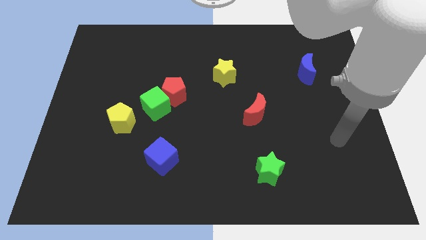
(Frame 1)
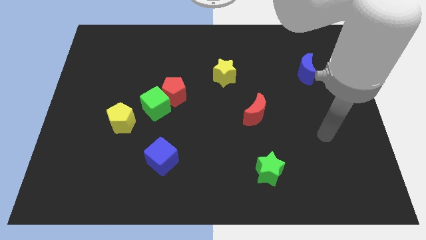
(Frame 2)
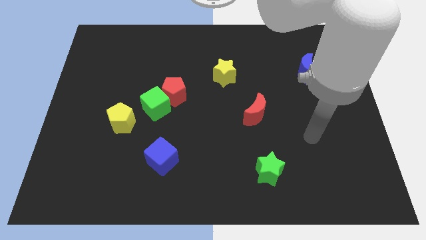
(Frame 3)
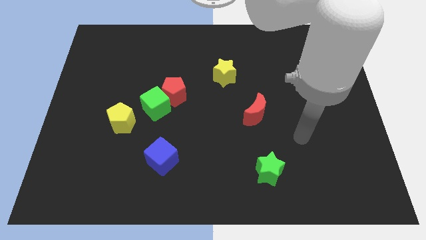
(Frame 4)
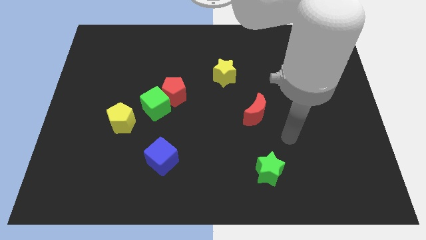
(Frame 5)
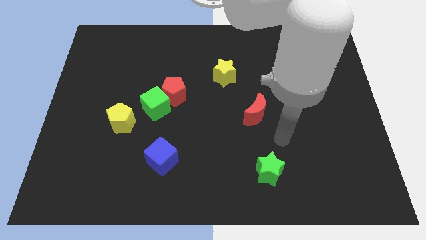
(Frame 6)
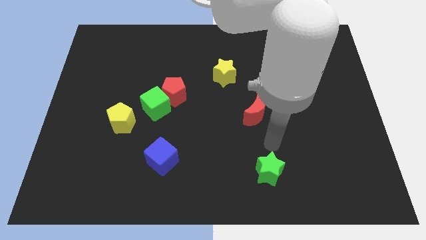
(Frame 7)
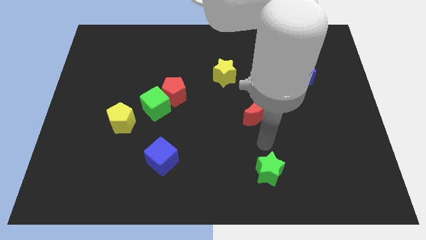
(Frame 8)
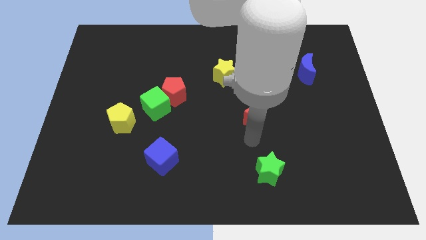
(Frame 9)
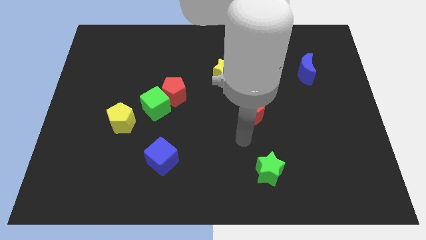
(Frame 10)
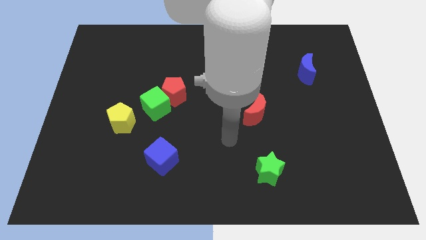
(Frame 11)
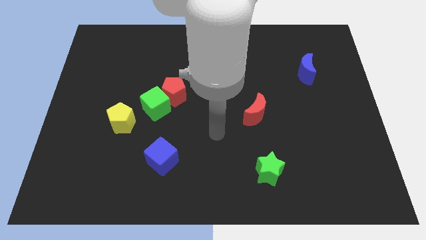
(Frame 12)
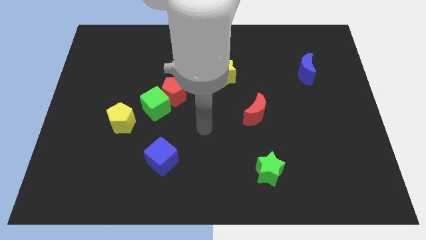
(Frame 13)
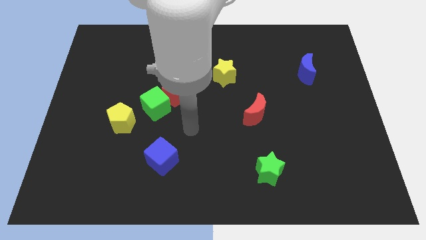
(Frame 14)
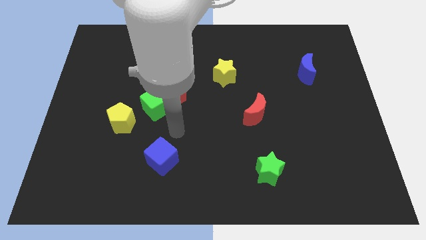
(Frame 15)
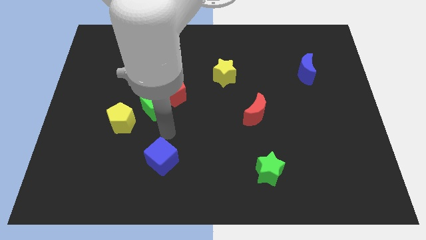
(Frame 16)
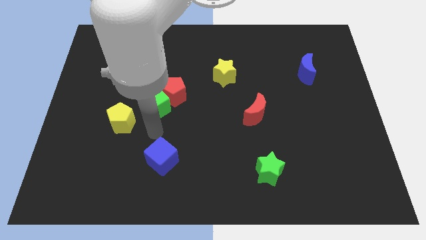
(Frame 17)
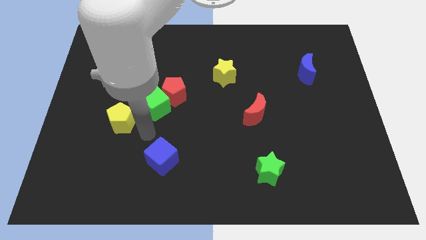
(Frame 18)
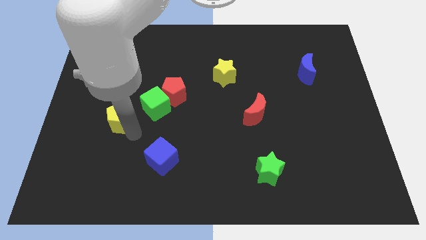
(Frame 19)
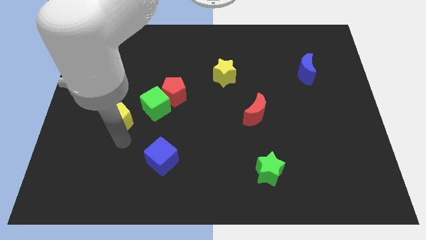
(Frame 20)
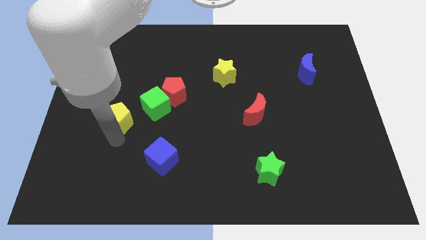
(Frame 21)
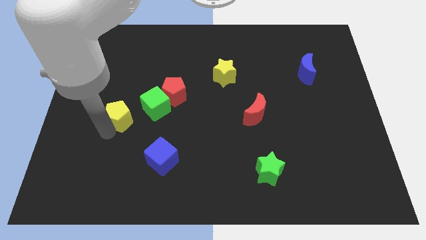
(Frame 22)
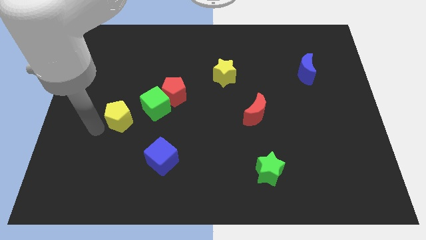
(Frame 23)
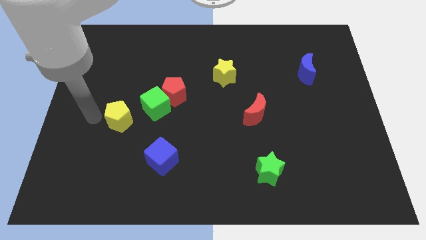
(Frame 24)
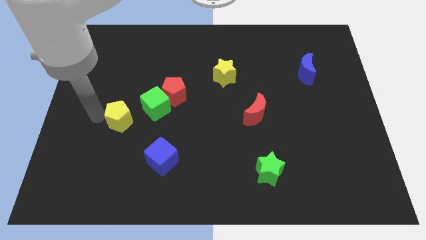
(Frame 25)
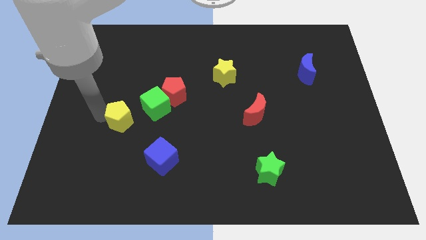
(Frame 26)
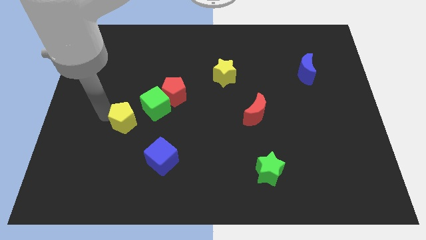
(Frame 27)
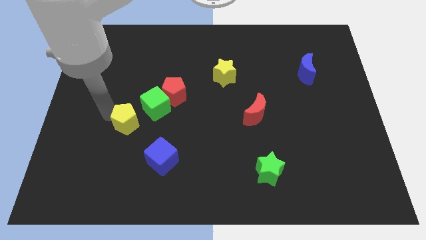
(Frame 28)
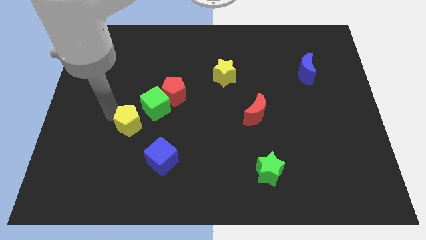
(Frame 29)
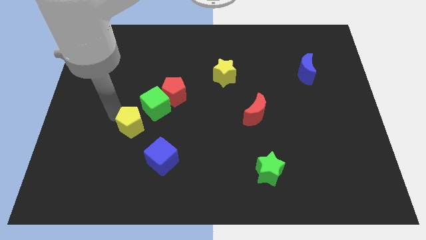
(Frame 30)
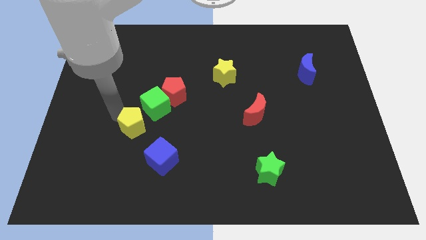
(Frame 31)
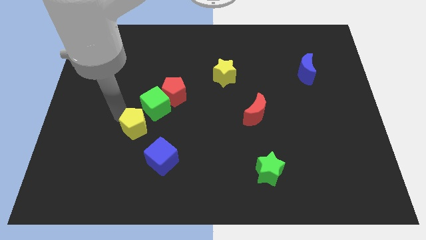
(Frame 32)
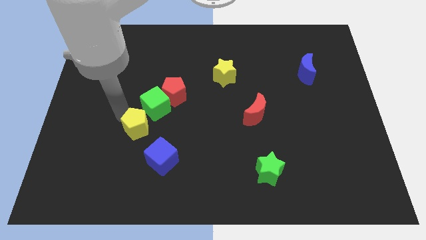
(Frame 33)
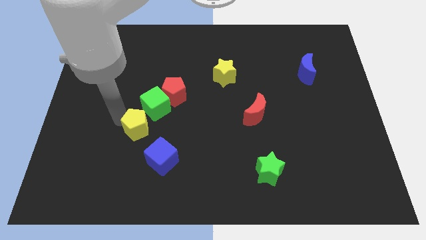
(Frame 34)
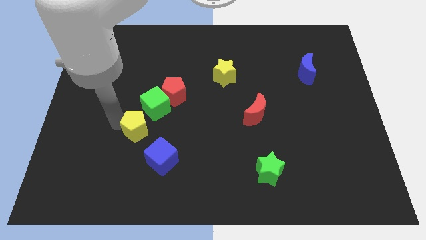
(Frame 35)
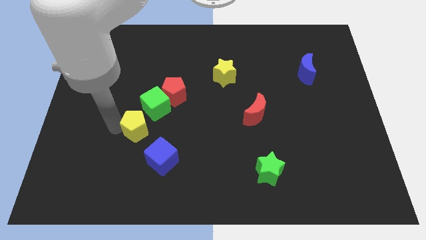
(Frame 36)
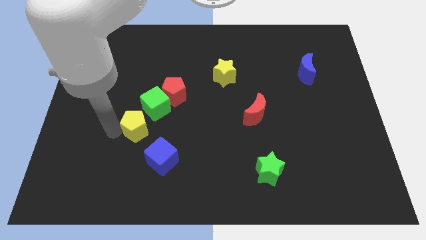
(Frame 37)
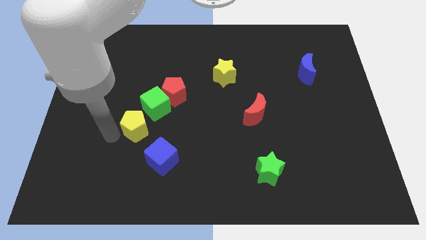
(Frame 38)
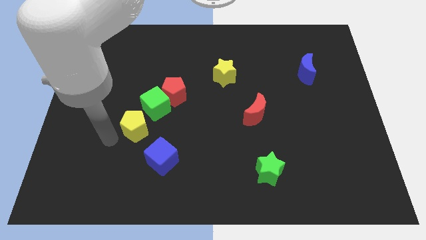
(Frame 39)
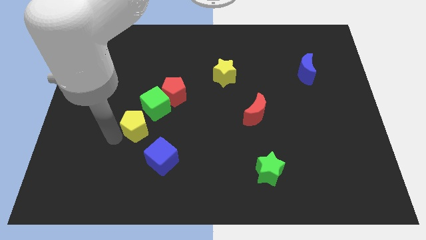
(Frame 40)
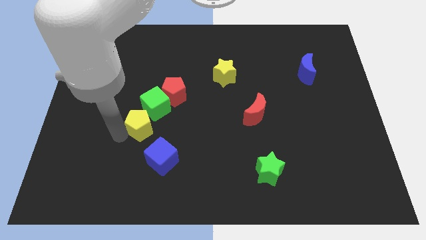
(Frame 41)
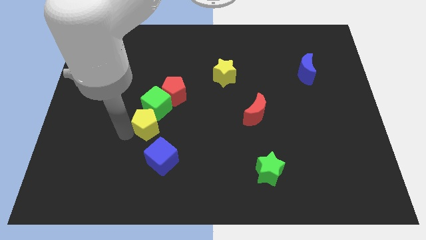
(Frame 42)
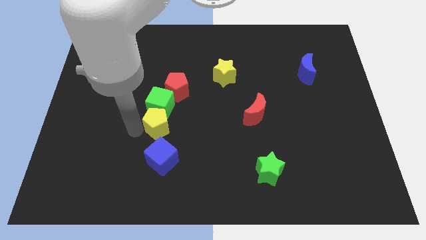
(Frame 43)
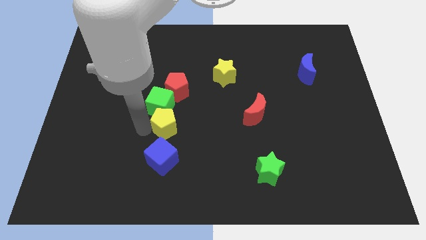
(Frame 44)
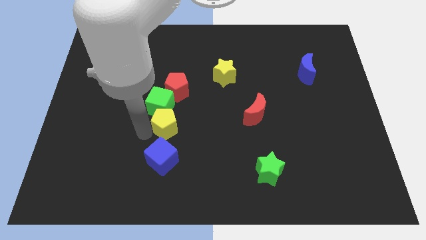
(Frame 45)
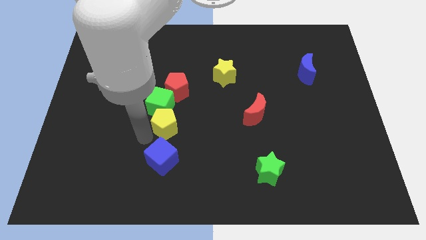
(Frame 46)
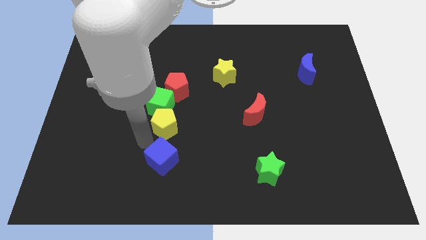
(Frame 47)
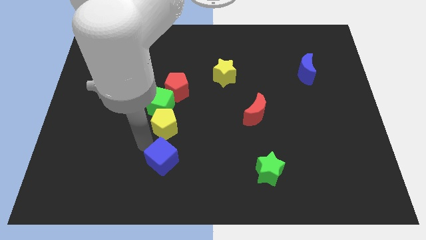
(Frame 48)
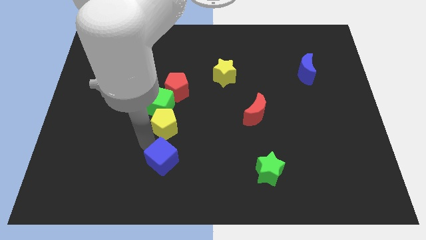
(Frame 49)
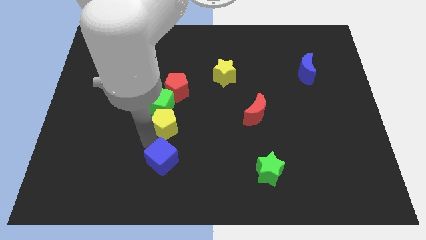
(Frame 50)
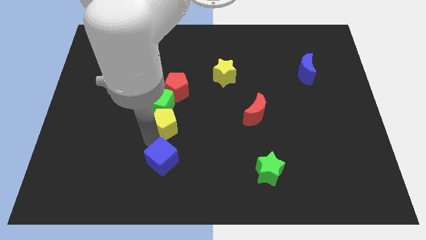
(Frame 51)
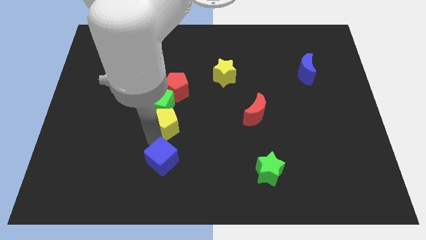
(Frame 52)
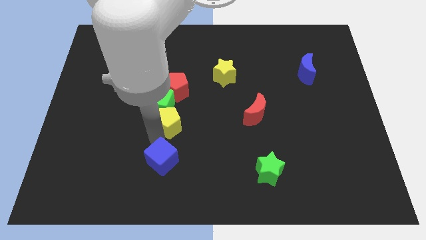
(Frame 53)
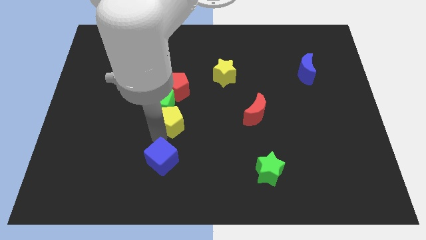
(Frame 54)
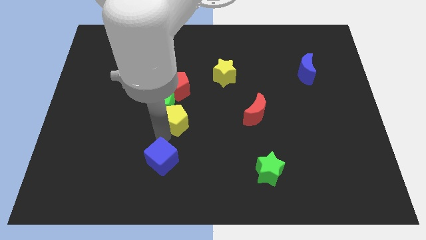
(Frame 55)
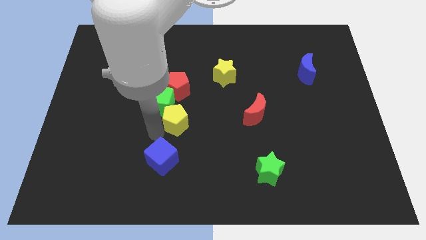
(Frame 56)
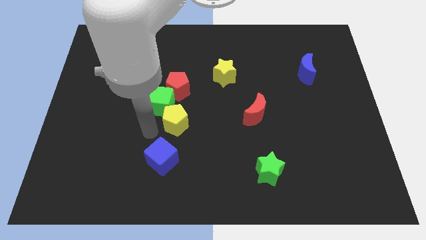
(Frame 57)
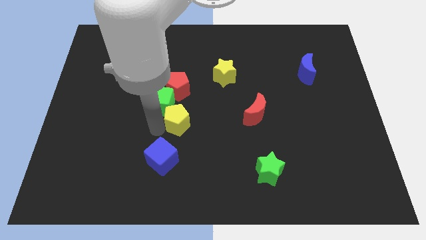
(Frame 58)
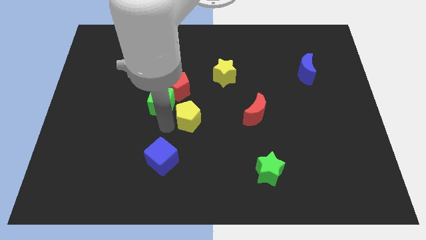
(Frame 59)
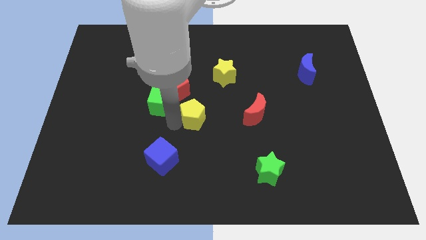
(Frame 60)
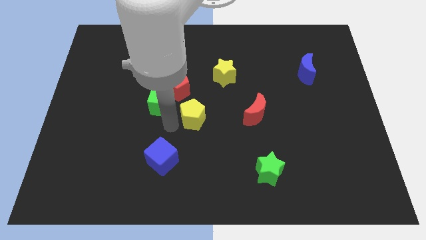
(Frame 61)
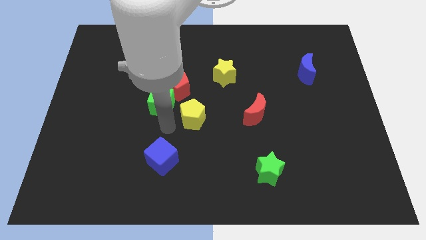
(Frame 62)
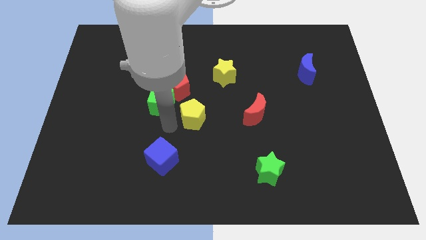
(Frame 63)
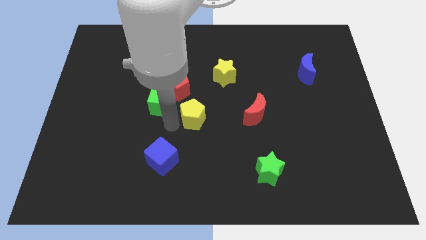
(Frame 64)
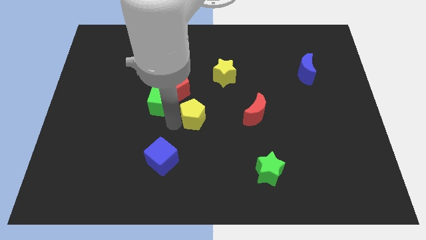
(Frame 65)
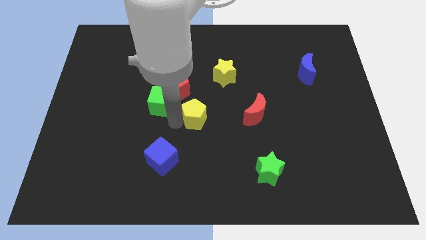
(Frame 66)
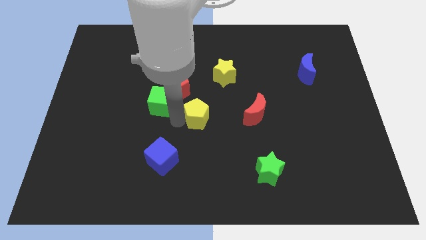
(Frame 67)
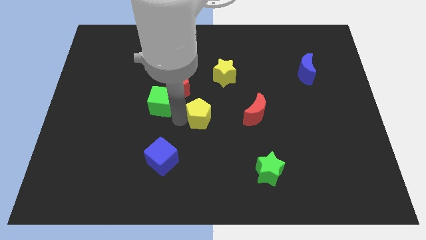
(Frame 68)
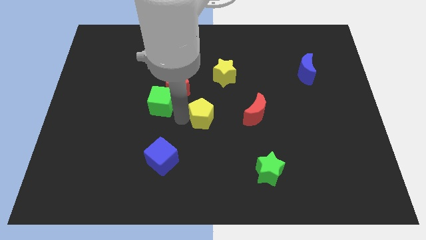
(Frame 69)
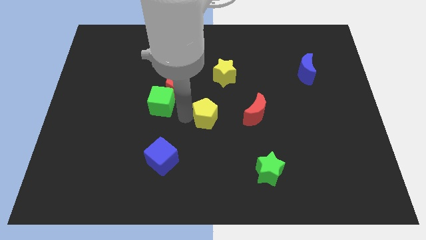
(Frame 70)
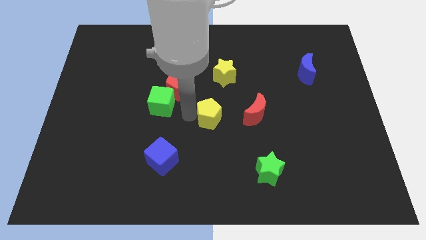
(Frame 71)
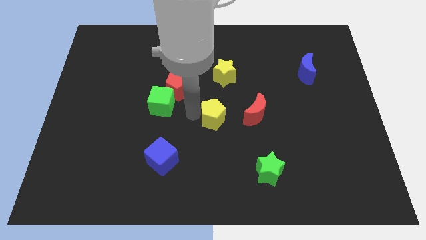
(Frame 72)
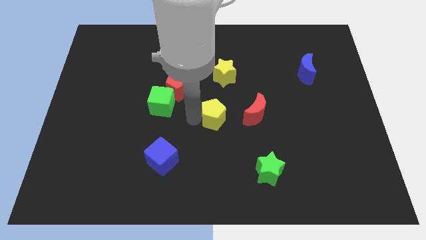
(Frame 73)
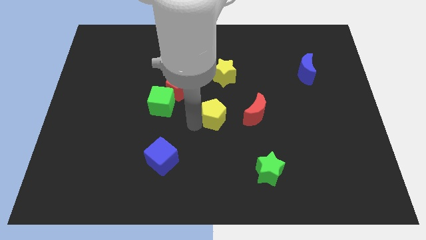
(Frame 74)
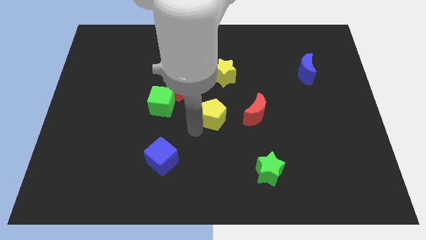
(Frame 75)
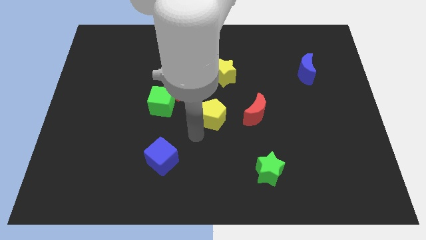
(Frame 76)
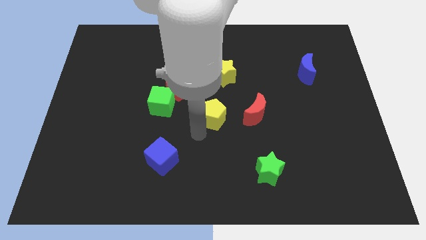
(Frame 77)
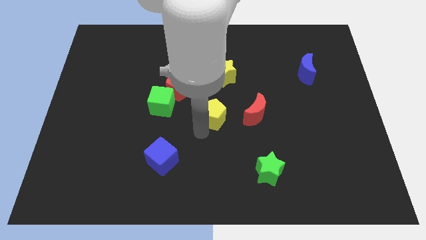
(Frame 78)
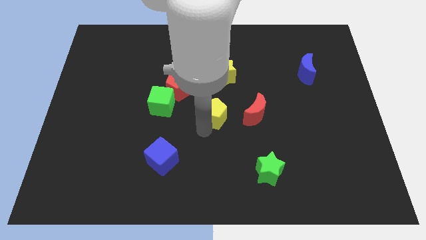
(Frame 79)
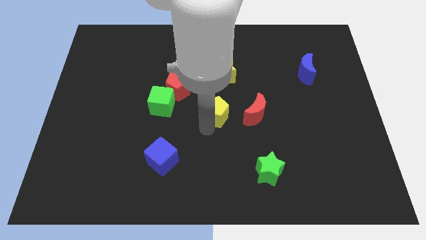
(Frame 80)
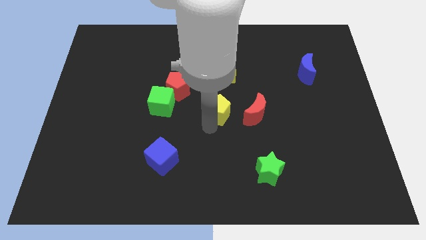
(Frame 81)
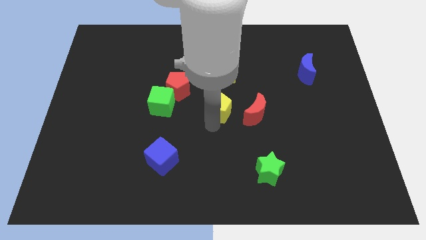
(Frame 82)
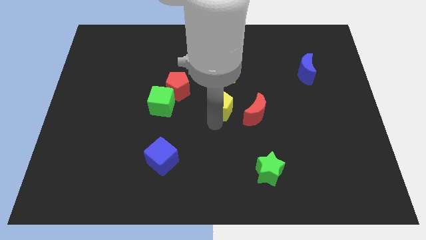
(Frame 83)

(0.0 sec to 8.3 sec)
move the yellow pentagon to the top left side of the red moon
